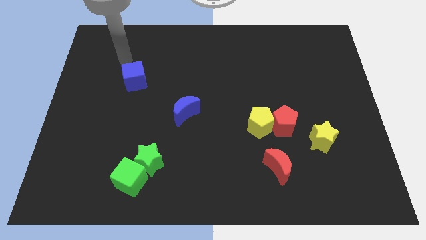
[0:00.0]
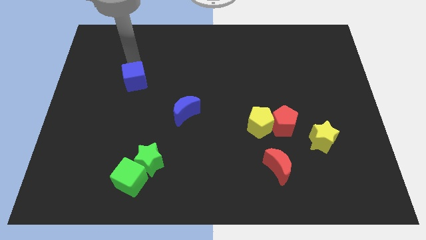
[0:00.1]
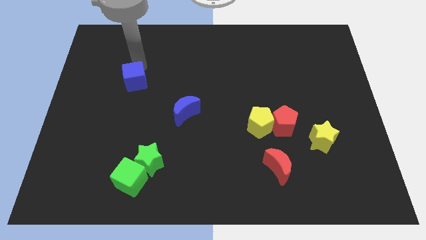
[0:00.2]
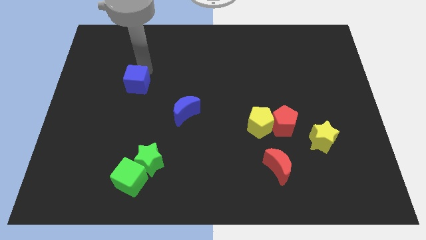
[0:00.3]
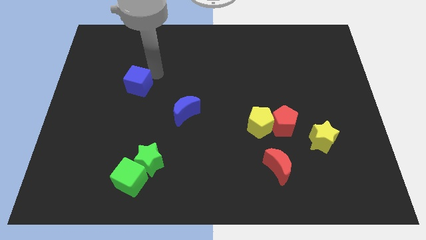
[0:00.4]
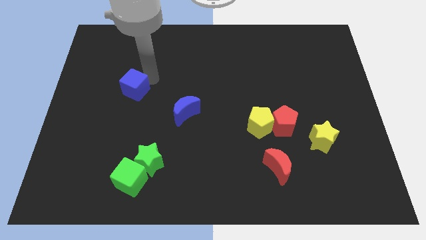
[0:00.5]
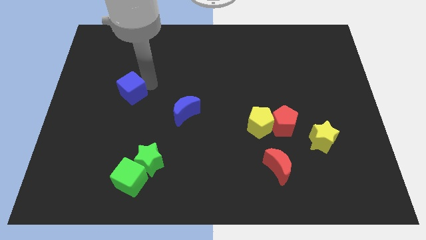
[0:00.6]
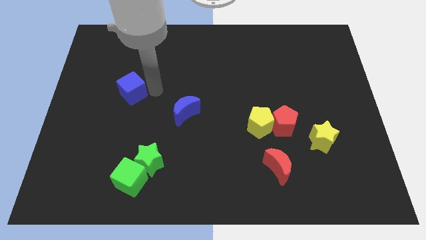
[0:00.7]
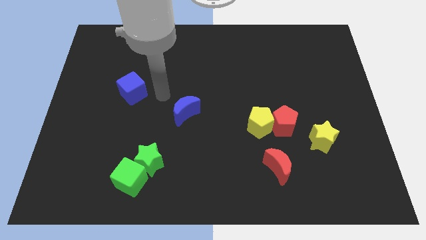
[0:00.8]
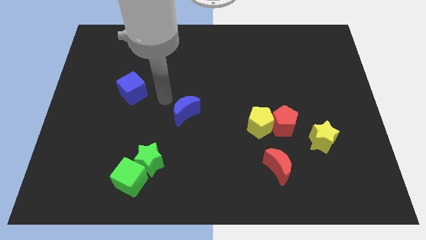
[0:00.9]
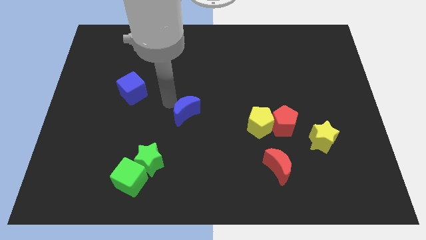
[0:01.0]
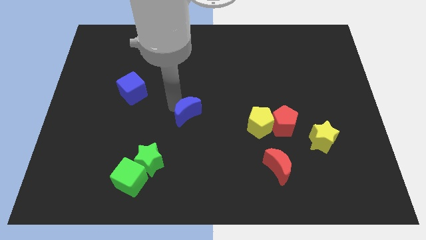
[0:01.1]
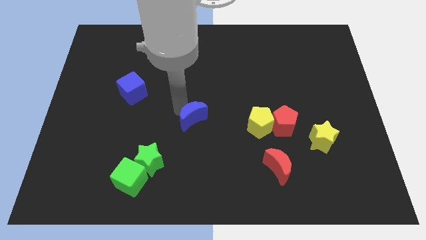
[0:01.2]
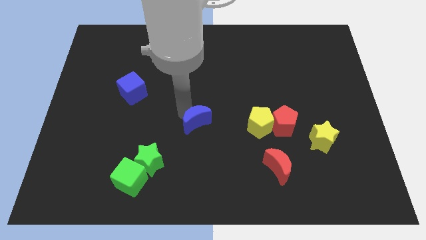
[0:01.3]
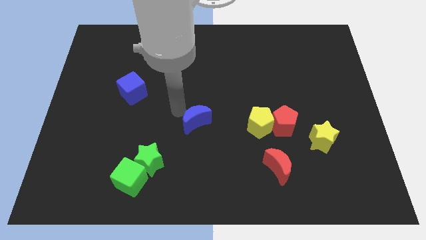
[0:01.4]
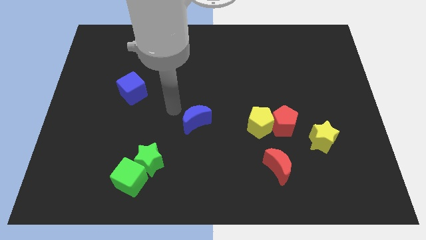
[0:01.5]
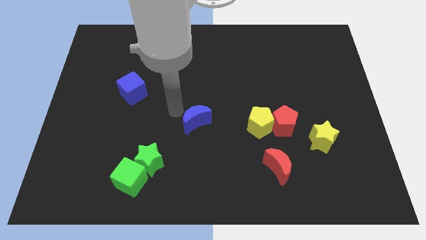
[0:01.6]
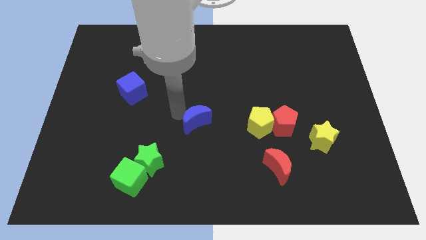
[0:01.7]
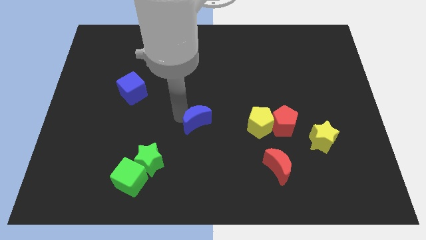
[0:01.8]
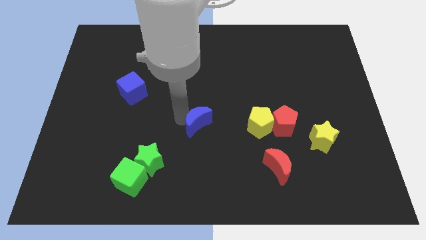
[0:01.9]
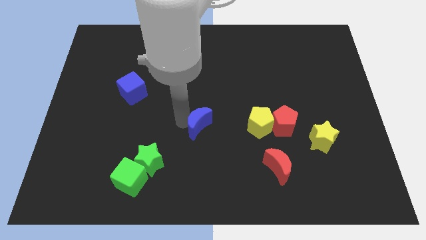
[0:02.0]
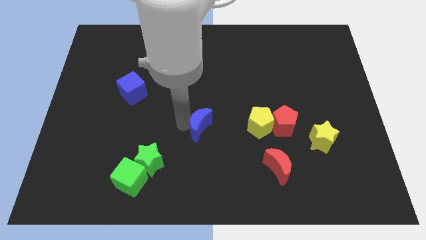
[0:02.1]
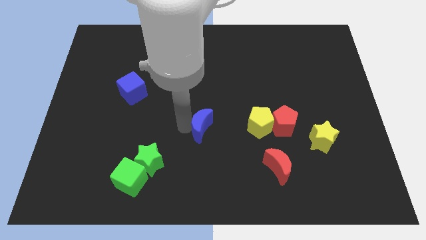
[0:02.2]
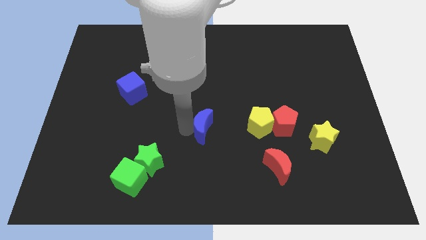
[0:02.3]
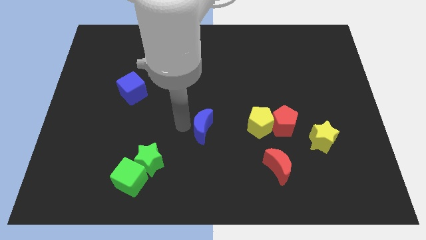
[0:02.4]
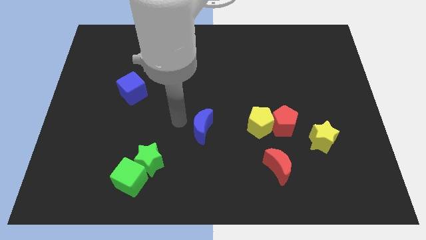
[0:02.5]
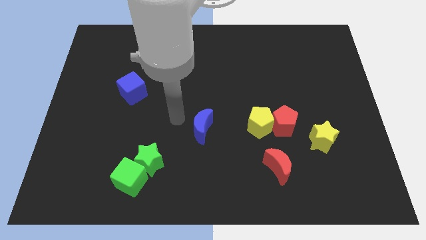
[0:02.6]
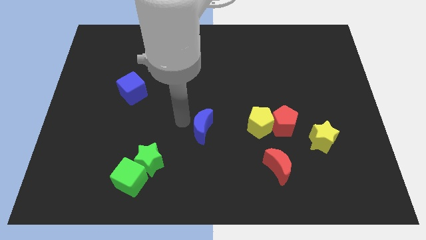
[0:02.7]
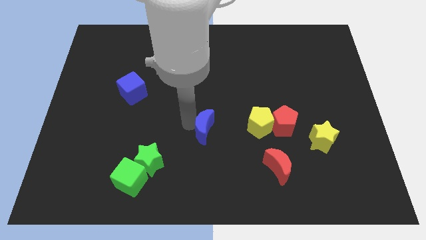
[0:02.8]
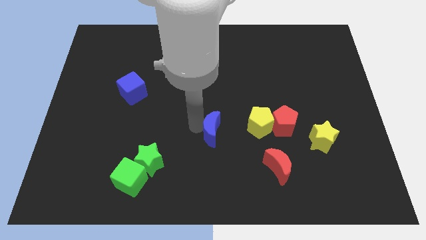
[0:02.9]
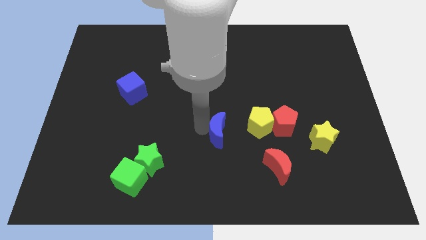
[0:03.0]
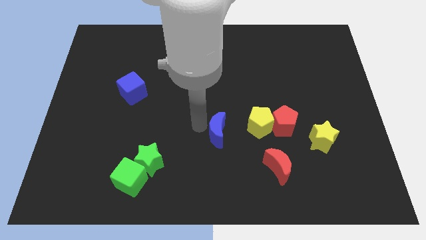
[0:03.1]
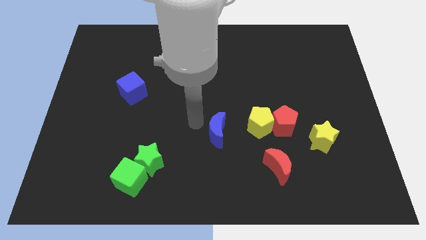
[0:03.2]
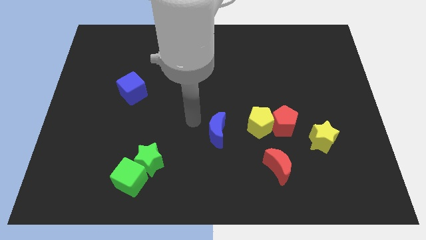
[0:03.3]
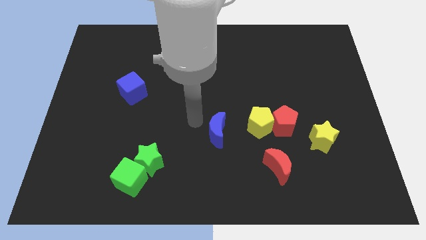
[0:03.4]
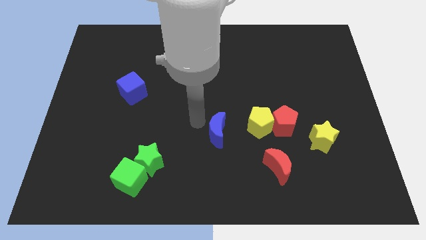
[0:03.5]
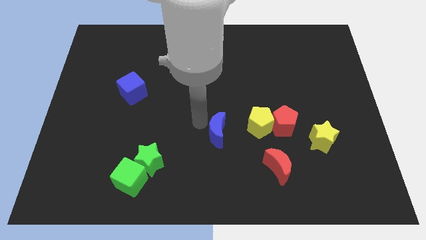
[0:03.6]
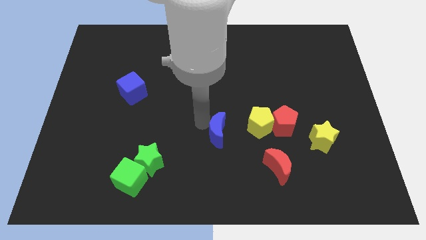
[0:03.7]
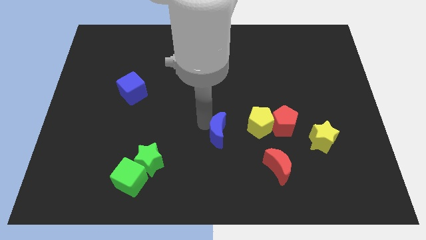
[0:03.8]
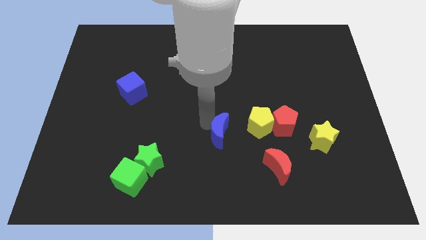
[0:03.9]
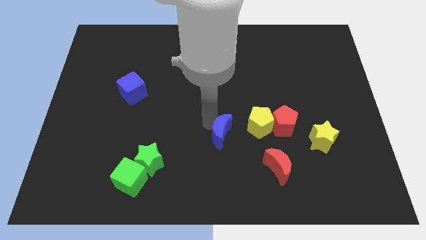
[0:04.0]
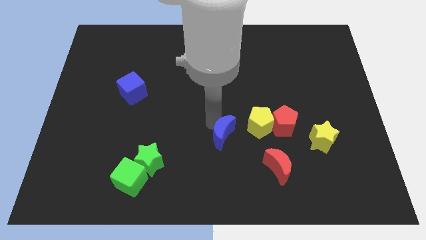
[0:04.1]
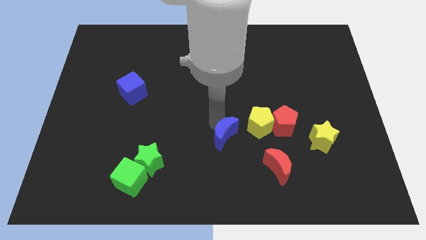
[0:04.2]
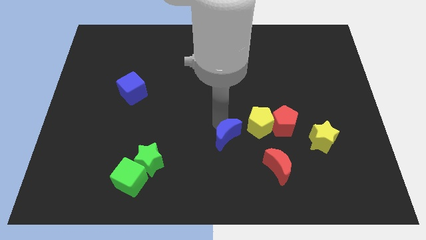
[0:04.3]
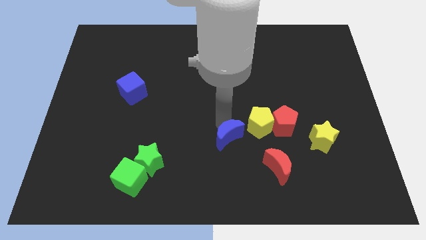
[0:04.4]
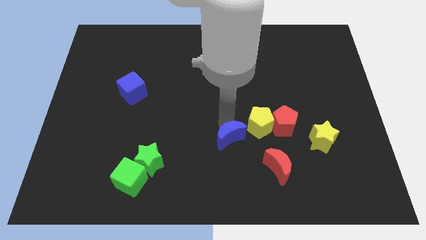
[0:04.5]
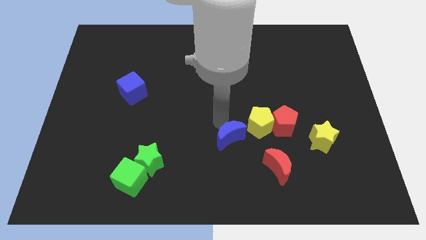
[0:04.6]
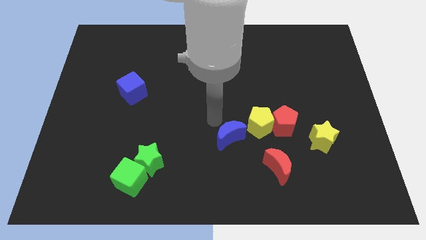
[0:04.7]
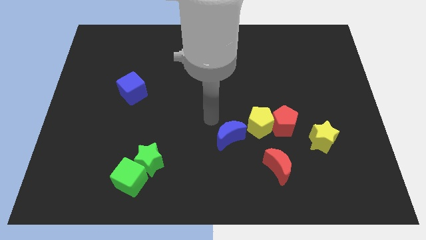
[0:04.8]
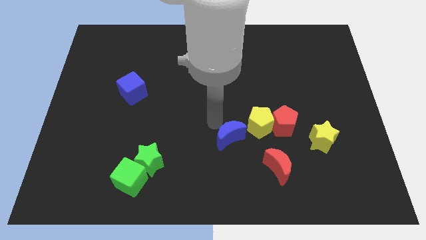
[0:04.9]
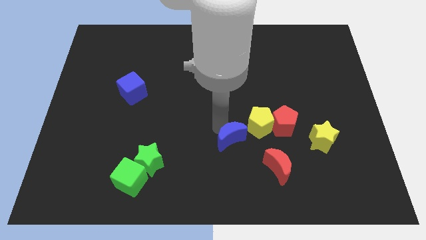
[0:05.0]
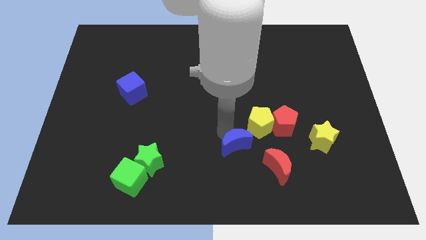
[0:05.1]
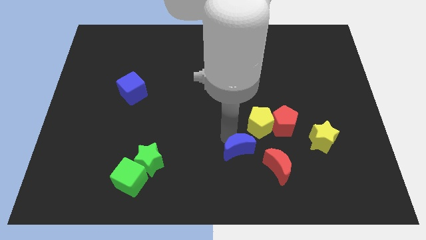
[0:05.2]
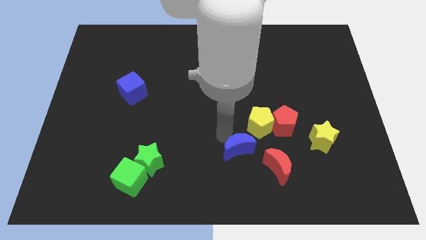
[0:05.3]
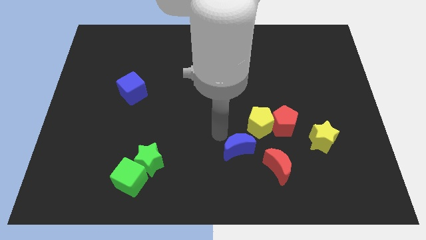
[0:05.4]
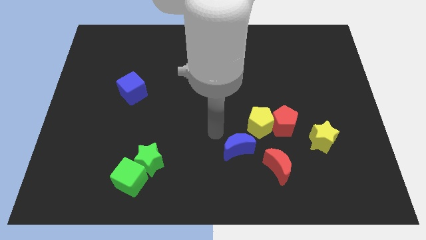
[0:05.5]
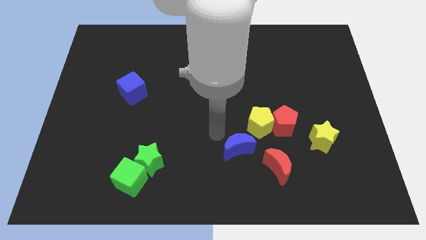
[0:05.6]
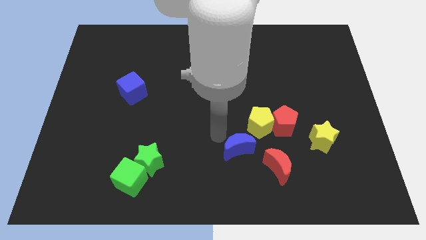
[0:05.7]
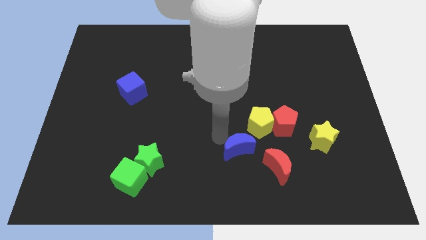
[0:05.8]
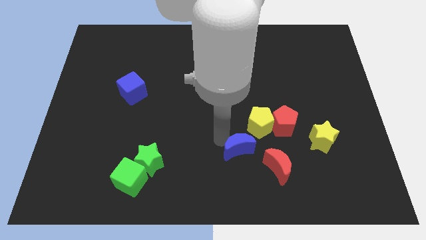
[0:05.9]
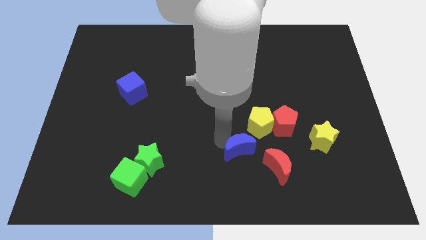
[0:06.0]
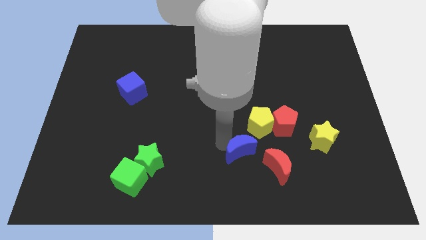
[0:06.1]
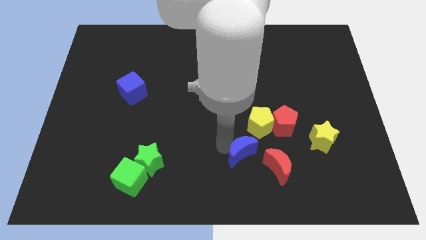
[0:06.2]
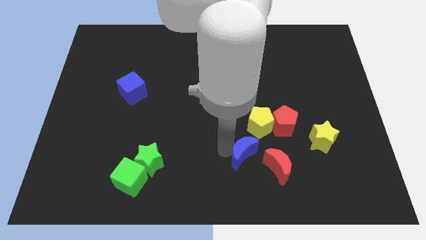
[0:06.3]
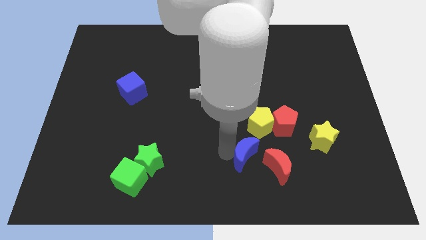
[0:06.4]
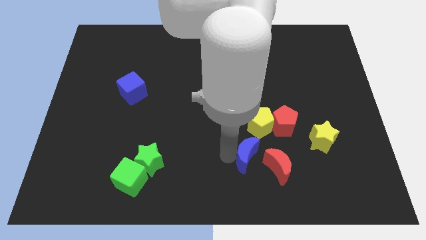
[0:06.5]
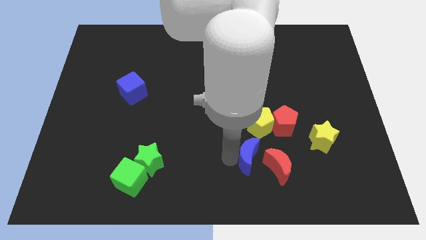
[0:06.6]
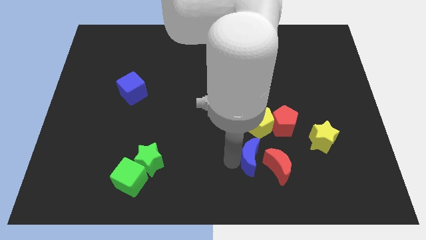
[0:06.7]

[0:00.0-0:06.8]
move the blue moon next to the red moon
